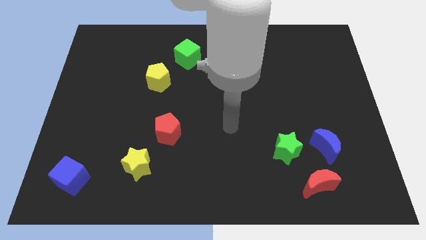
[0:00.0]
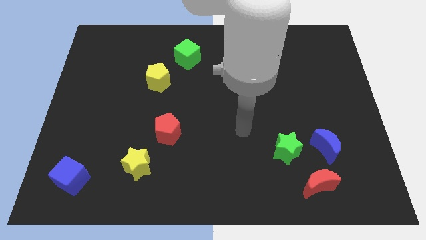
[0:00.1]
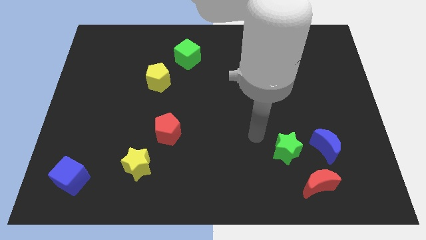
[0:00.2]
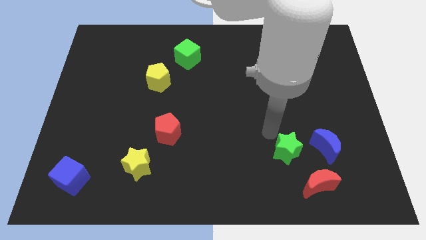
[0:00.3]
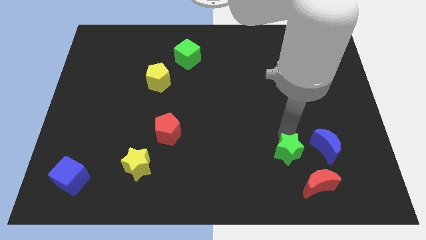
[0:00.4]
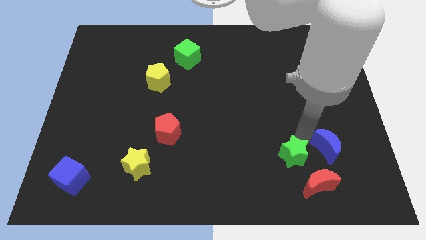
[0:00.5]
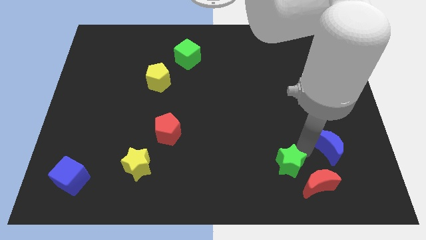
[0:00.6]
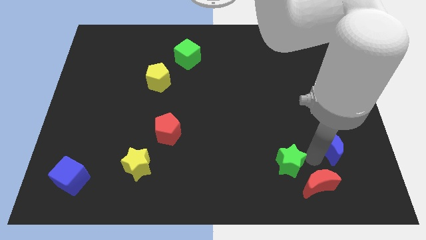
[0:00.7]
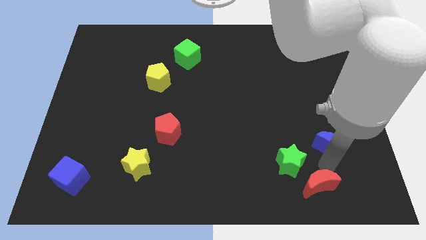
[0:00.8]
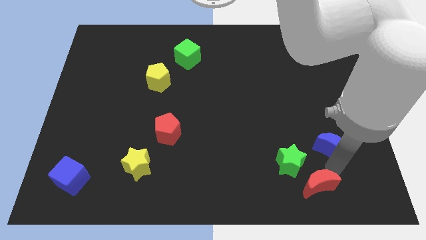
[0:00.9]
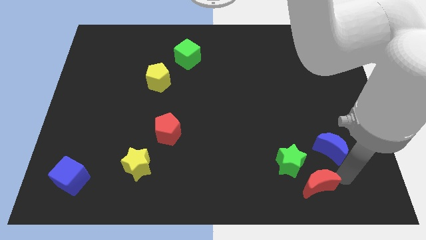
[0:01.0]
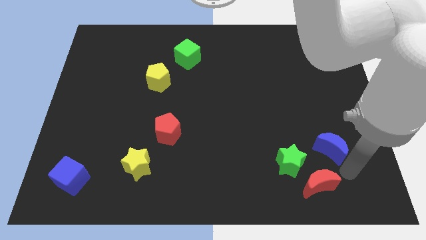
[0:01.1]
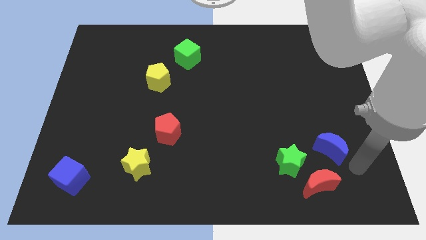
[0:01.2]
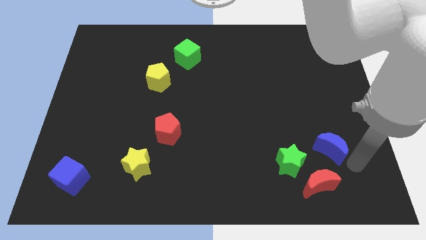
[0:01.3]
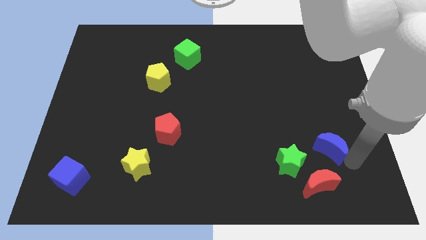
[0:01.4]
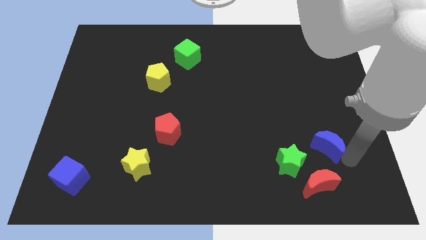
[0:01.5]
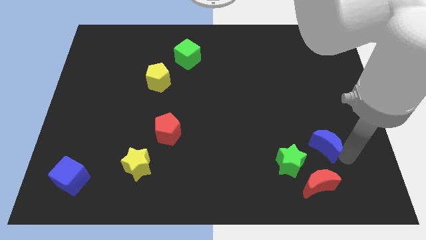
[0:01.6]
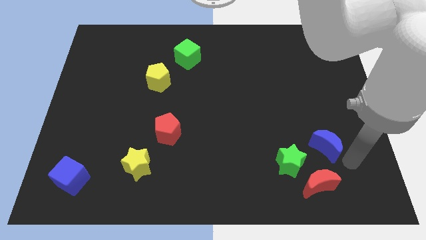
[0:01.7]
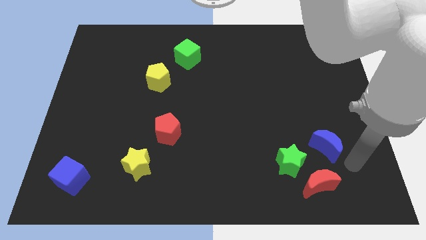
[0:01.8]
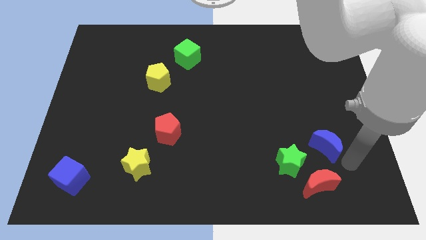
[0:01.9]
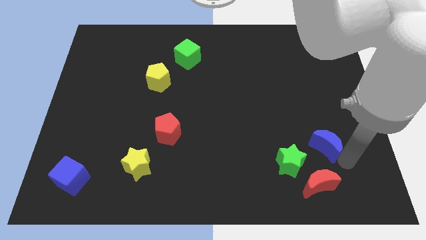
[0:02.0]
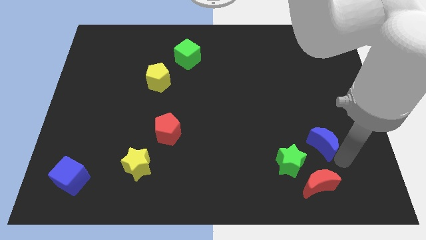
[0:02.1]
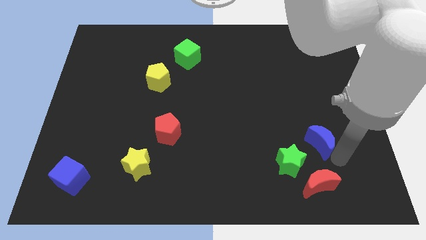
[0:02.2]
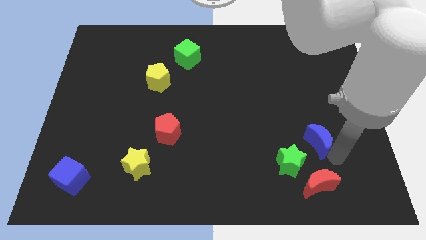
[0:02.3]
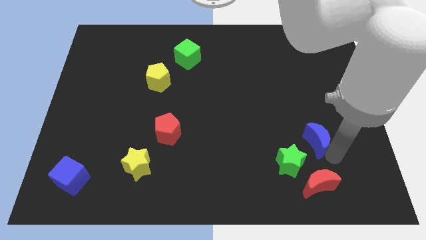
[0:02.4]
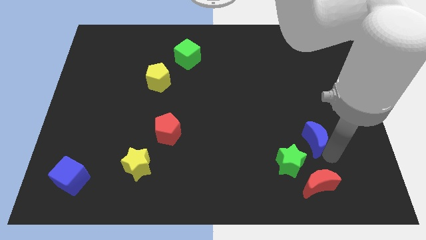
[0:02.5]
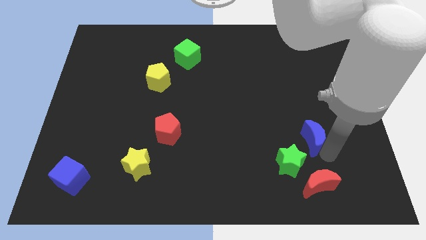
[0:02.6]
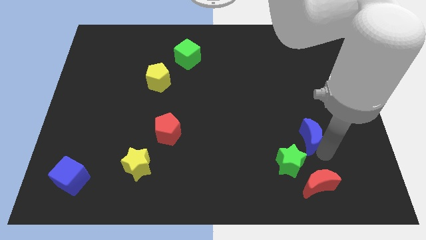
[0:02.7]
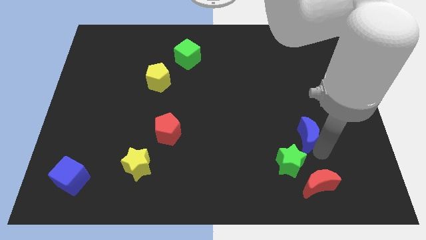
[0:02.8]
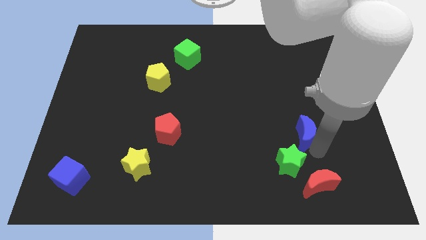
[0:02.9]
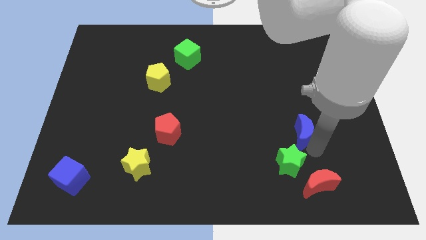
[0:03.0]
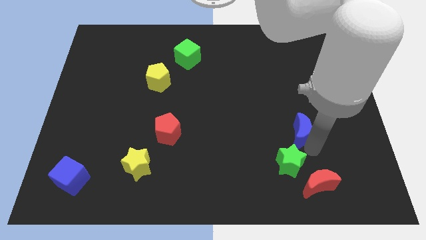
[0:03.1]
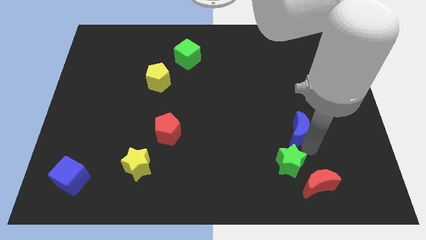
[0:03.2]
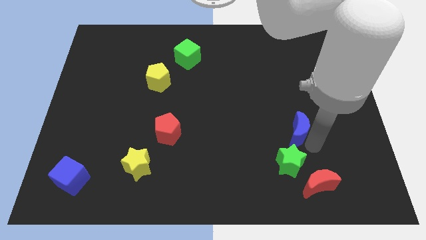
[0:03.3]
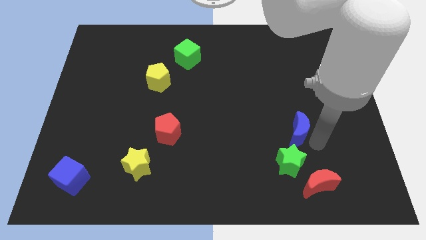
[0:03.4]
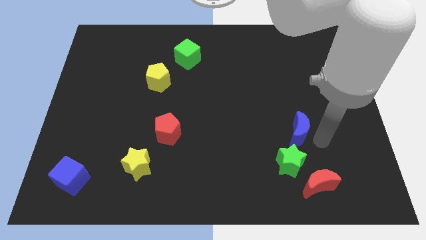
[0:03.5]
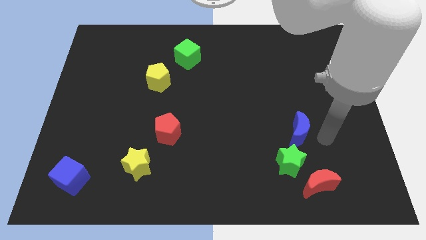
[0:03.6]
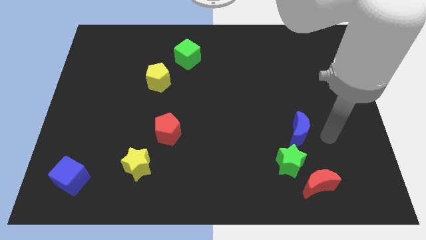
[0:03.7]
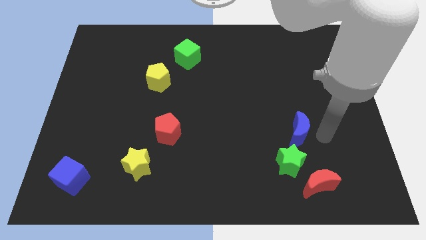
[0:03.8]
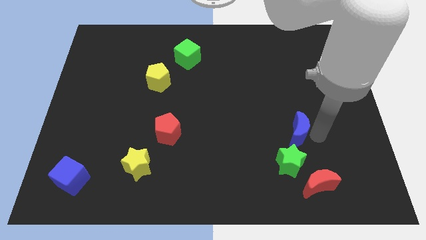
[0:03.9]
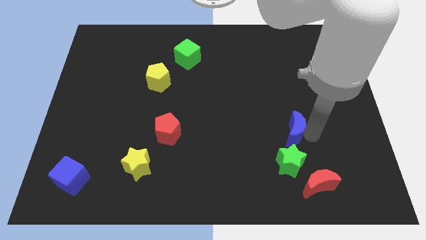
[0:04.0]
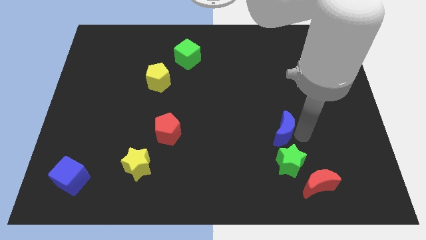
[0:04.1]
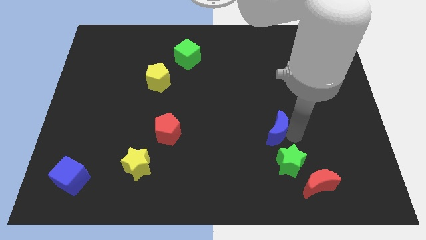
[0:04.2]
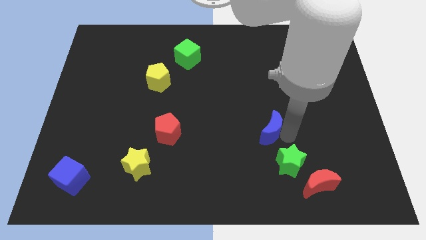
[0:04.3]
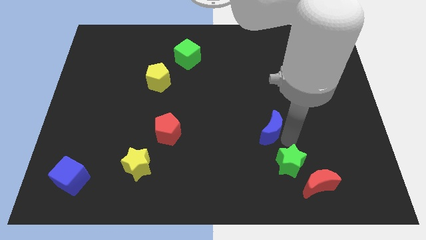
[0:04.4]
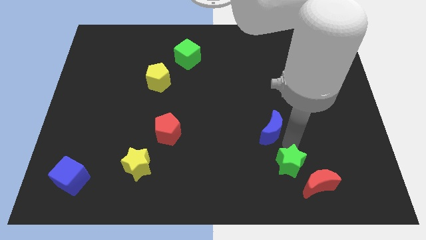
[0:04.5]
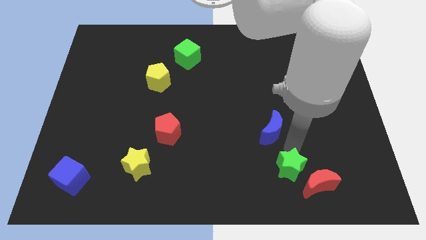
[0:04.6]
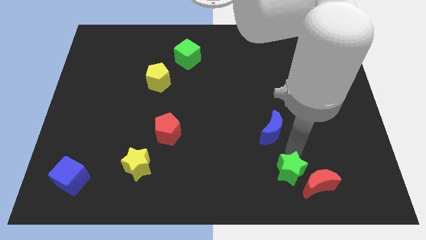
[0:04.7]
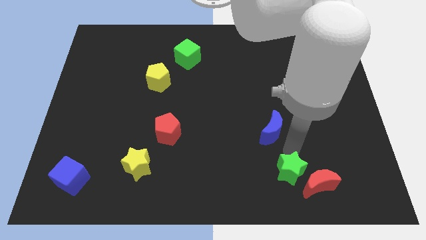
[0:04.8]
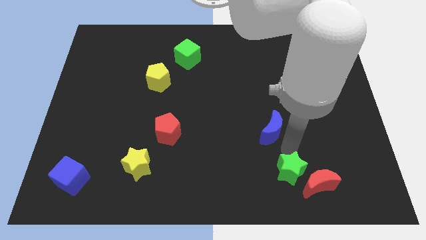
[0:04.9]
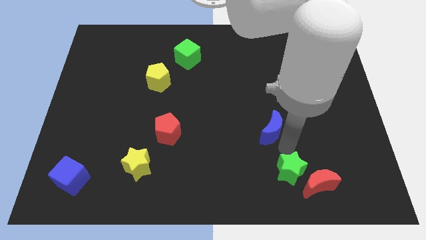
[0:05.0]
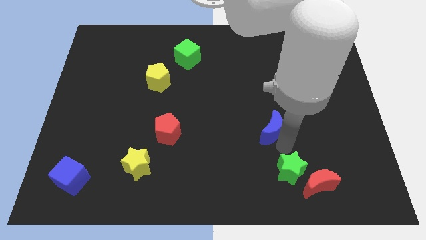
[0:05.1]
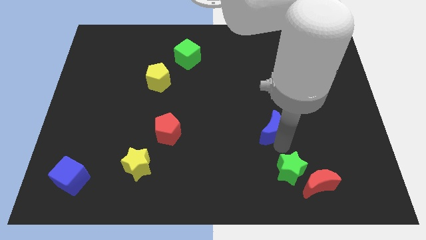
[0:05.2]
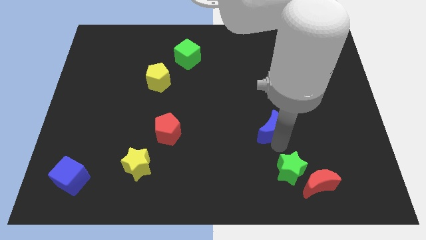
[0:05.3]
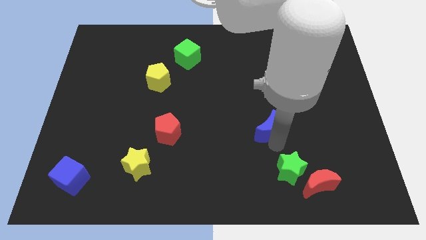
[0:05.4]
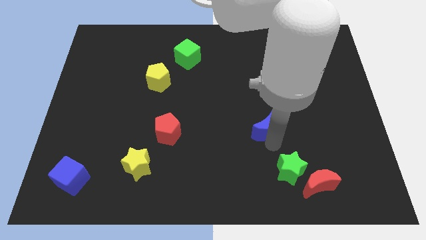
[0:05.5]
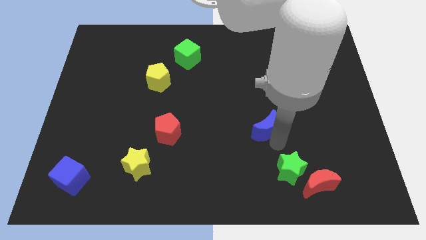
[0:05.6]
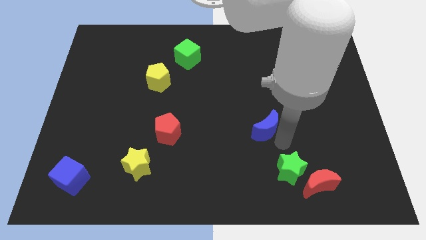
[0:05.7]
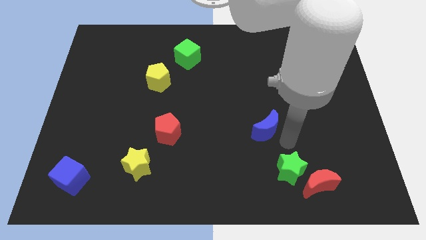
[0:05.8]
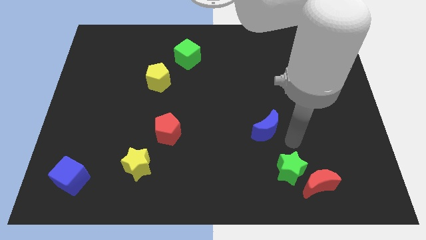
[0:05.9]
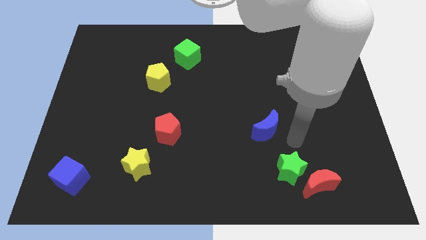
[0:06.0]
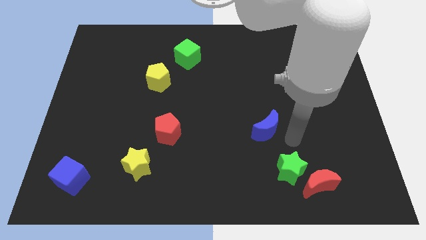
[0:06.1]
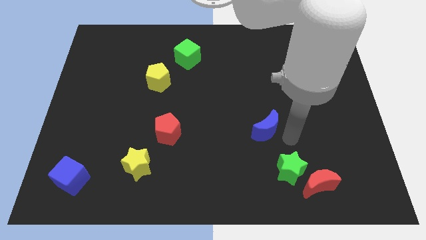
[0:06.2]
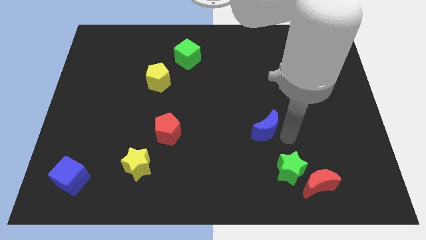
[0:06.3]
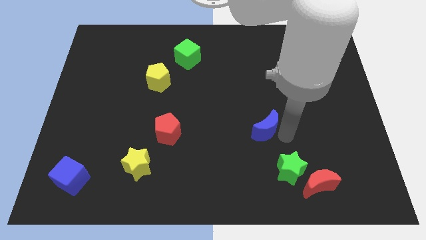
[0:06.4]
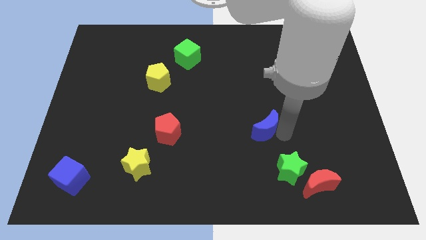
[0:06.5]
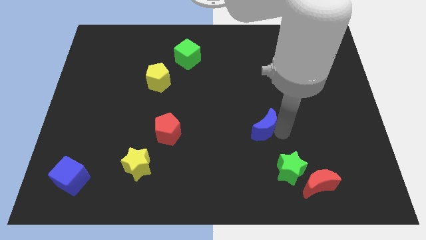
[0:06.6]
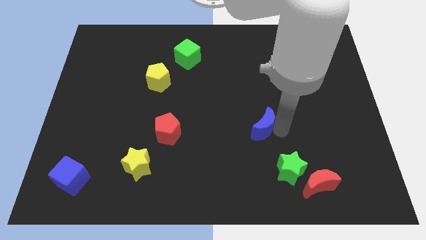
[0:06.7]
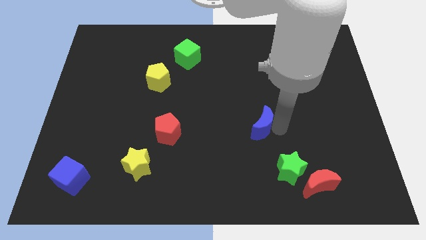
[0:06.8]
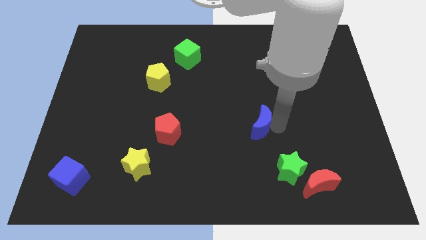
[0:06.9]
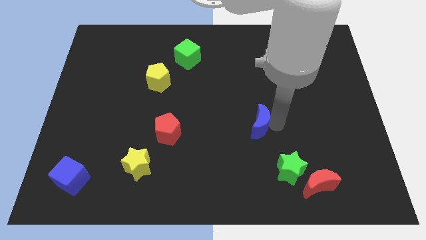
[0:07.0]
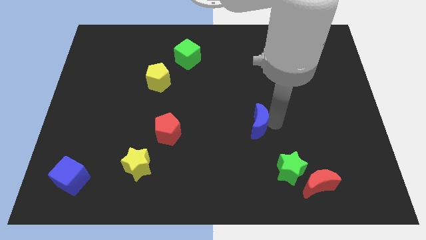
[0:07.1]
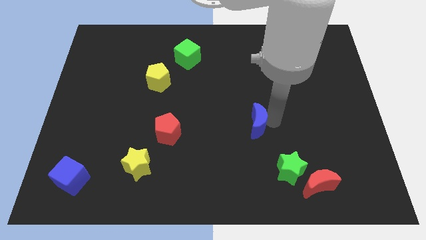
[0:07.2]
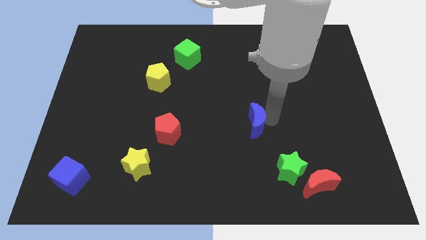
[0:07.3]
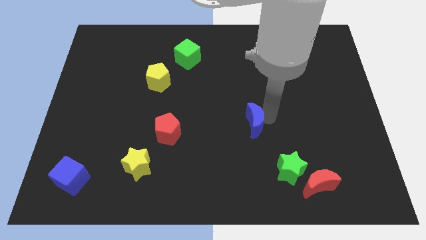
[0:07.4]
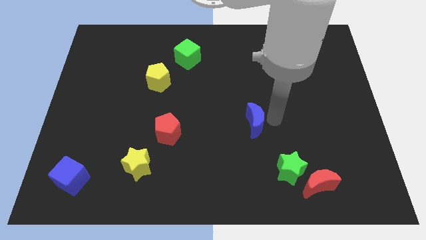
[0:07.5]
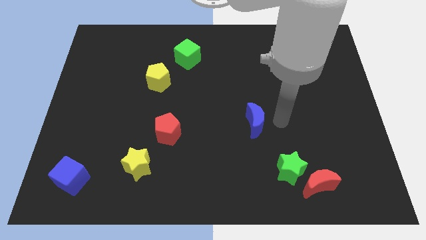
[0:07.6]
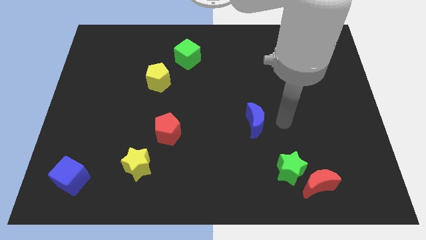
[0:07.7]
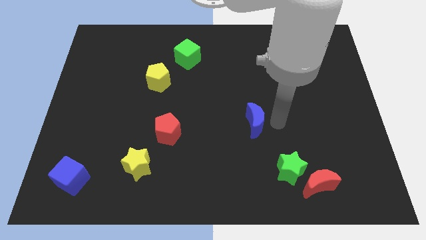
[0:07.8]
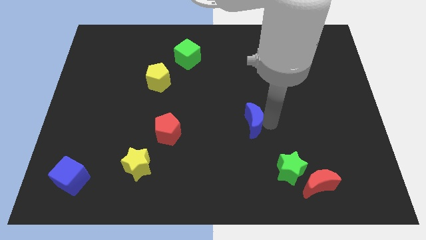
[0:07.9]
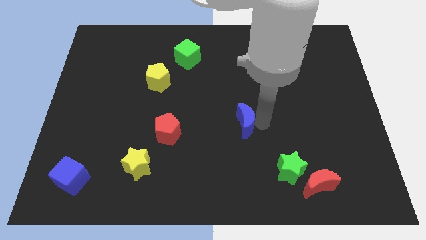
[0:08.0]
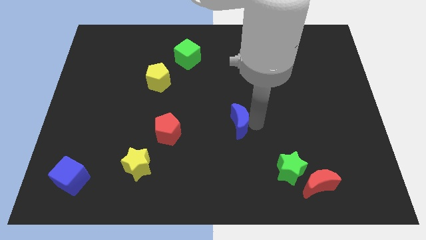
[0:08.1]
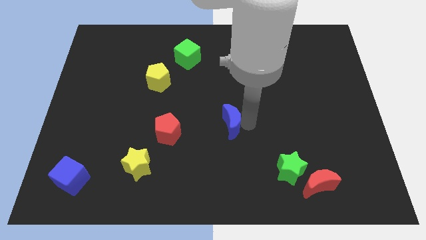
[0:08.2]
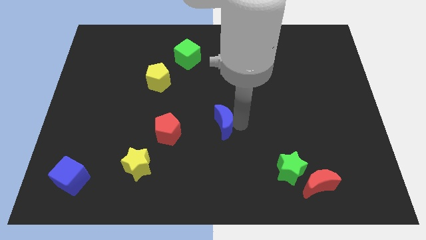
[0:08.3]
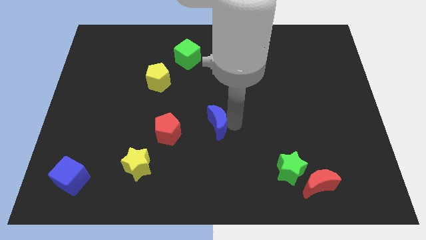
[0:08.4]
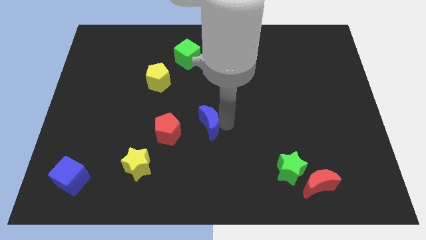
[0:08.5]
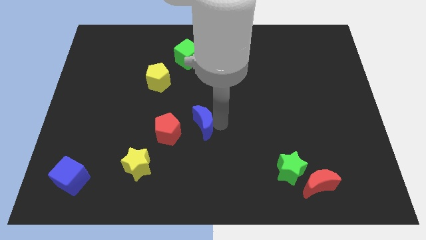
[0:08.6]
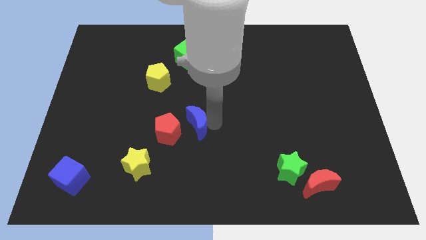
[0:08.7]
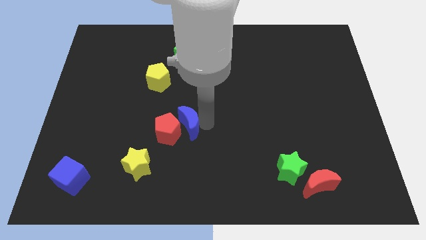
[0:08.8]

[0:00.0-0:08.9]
push the blue moon close to the red pentagon
